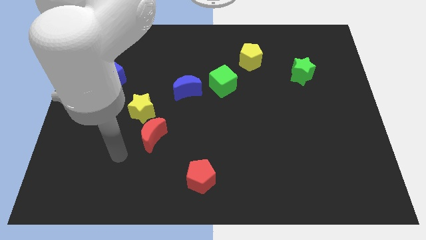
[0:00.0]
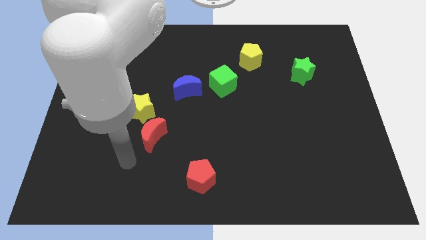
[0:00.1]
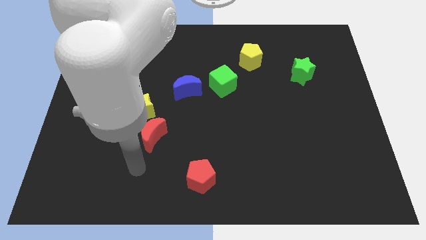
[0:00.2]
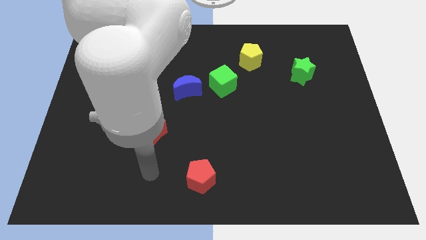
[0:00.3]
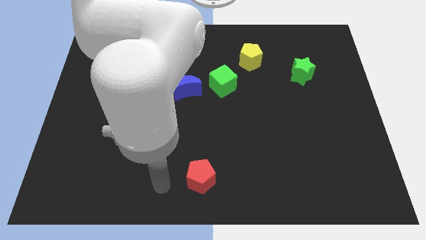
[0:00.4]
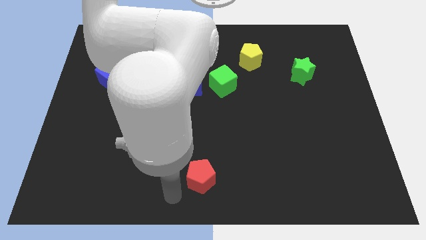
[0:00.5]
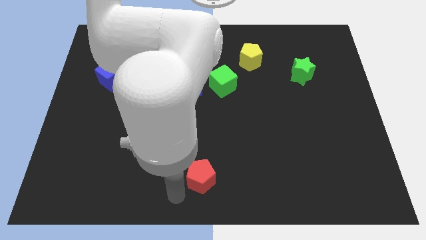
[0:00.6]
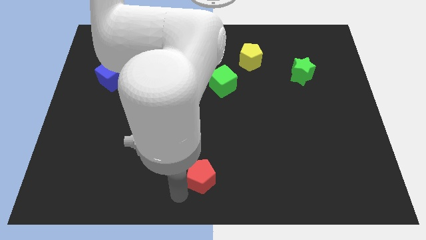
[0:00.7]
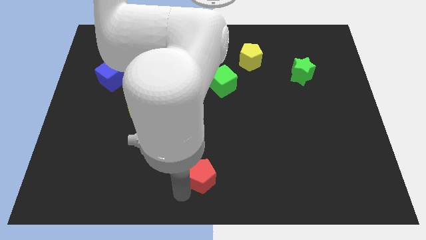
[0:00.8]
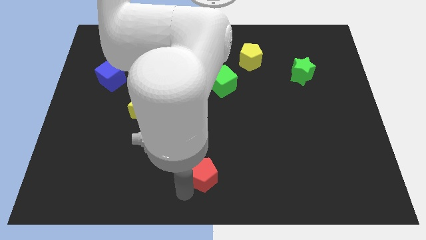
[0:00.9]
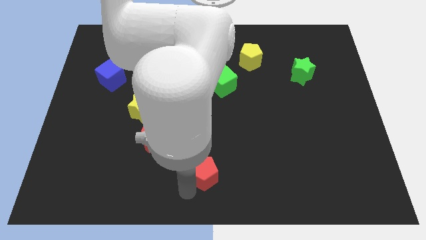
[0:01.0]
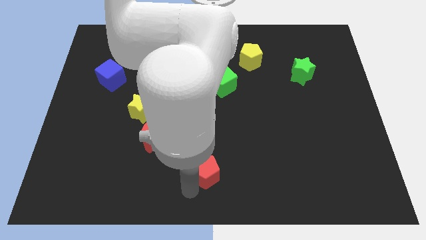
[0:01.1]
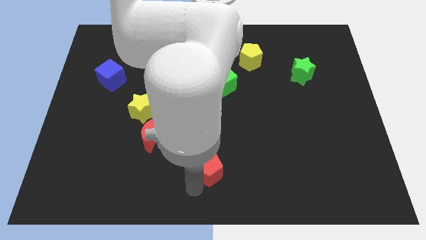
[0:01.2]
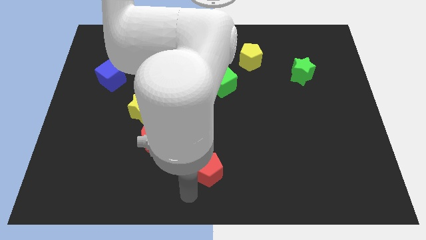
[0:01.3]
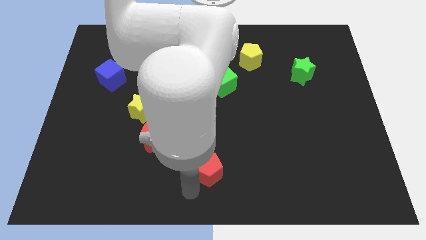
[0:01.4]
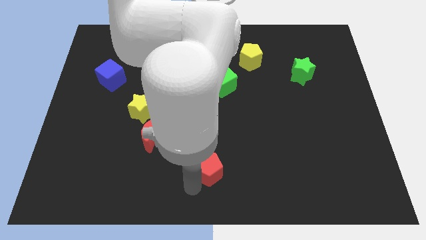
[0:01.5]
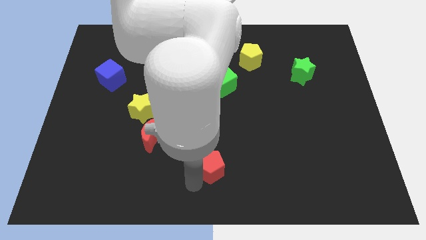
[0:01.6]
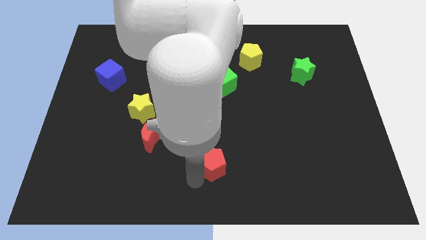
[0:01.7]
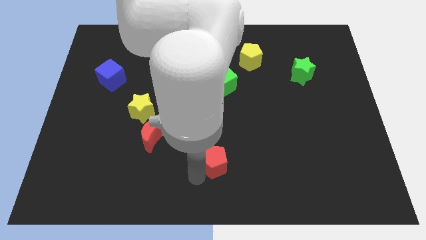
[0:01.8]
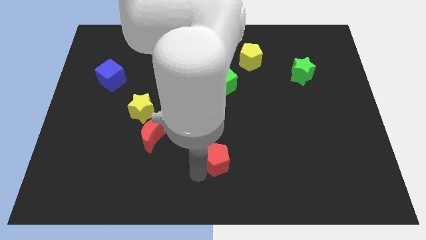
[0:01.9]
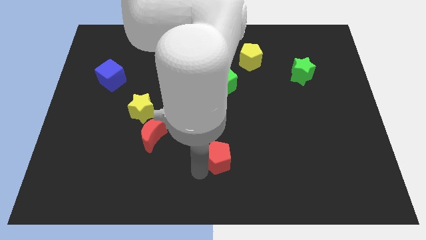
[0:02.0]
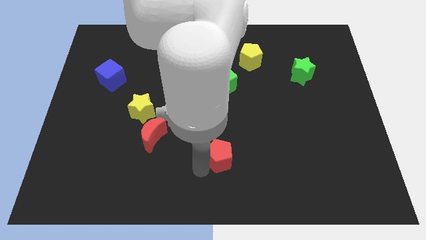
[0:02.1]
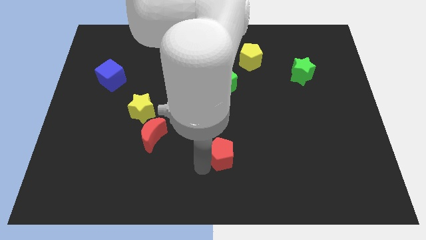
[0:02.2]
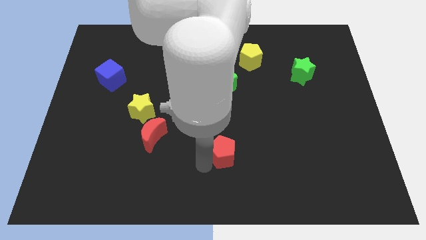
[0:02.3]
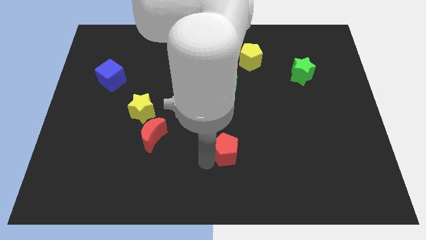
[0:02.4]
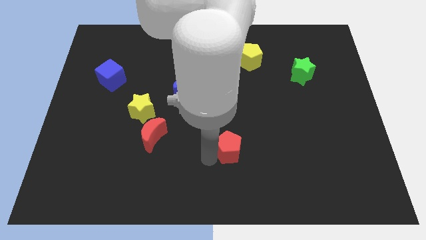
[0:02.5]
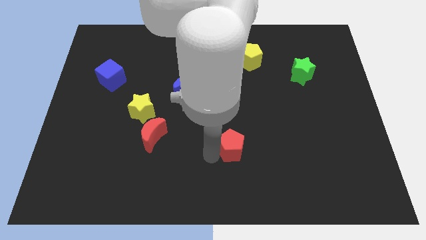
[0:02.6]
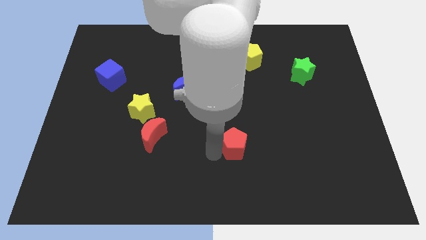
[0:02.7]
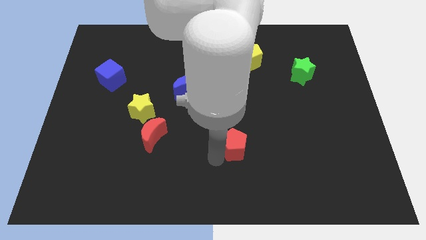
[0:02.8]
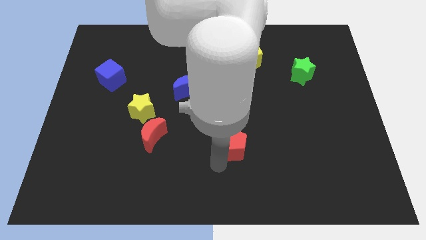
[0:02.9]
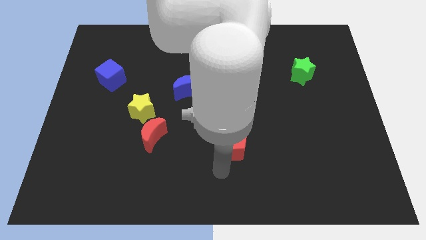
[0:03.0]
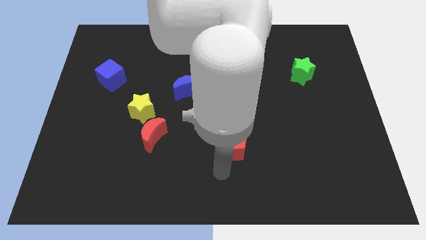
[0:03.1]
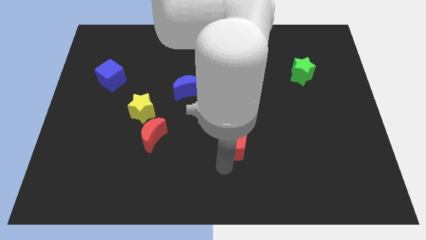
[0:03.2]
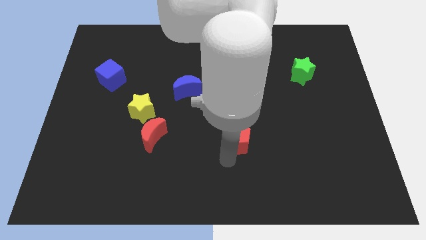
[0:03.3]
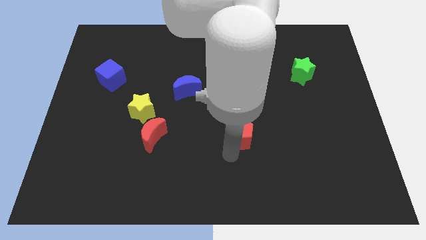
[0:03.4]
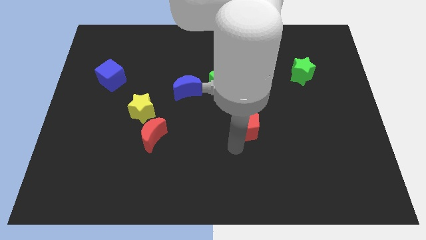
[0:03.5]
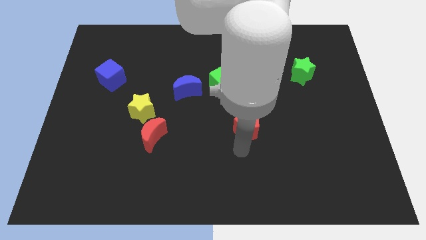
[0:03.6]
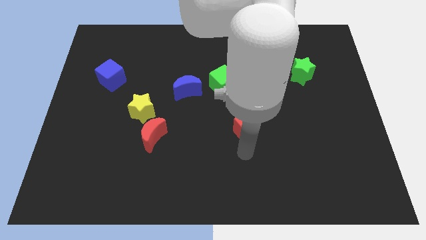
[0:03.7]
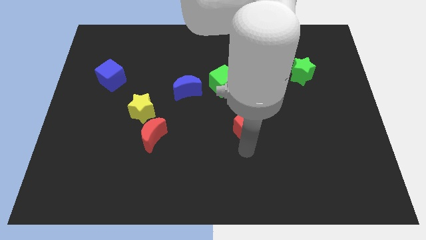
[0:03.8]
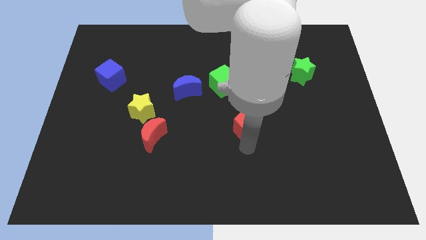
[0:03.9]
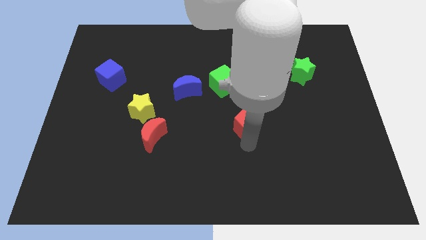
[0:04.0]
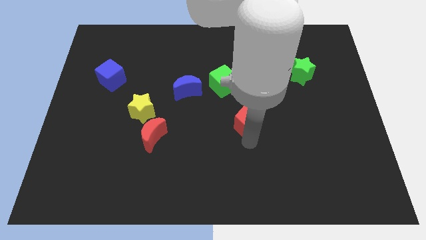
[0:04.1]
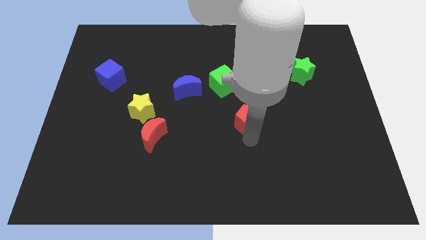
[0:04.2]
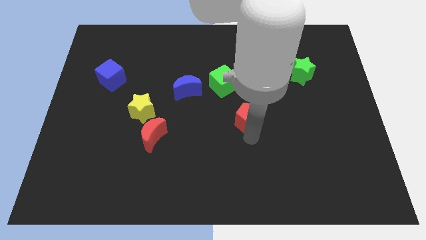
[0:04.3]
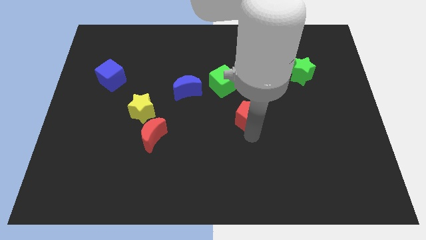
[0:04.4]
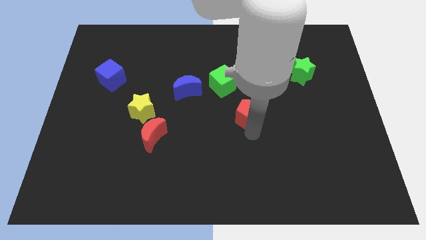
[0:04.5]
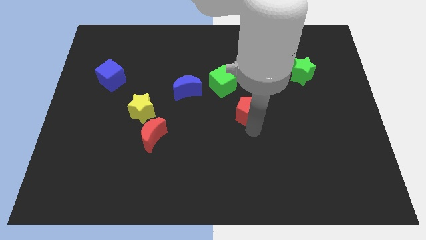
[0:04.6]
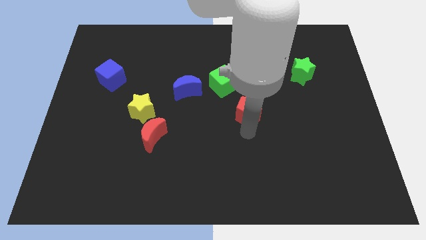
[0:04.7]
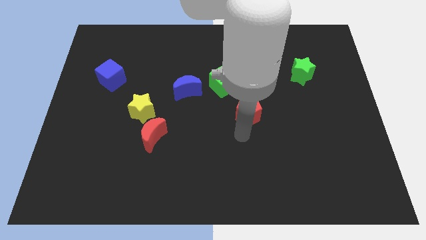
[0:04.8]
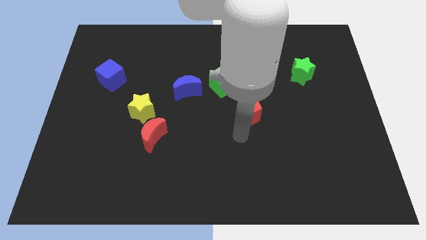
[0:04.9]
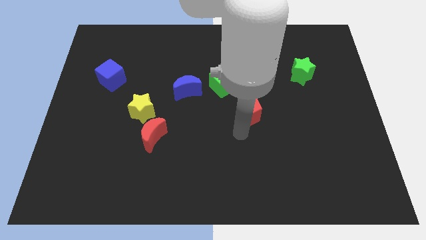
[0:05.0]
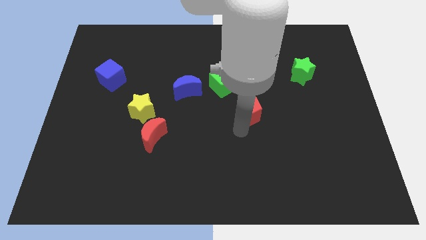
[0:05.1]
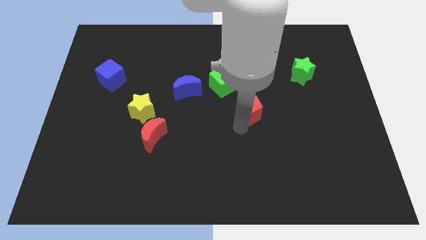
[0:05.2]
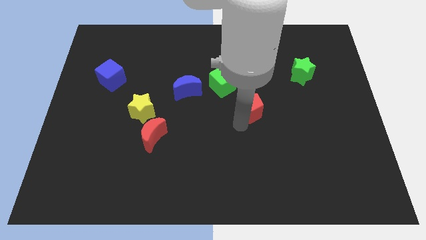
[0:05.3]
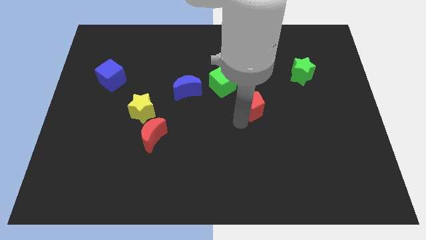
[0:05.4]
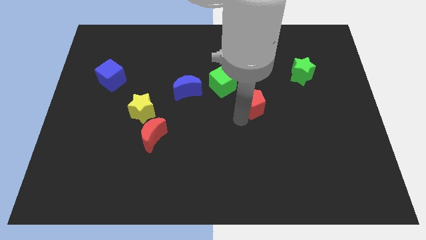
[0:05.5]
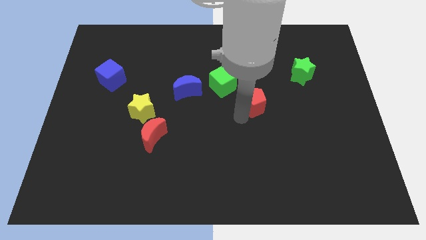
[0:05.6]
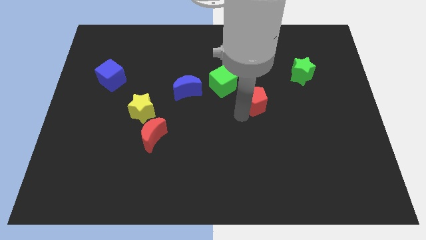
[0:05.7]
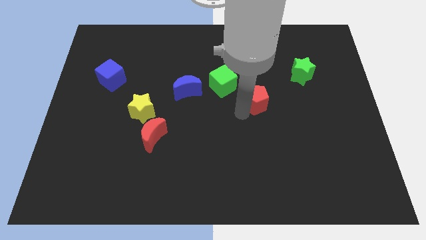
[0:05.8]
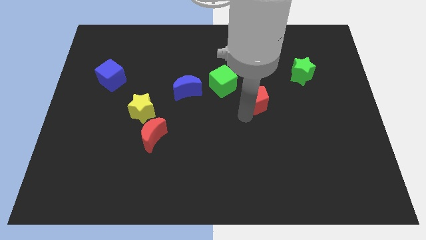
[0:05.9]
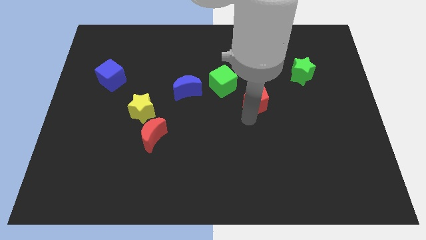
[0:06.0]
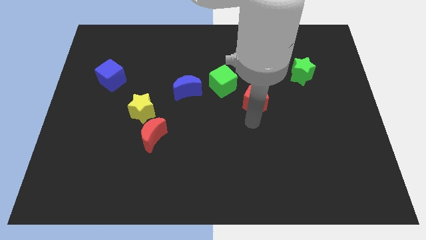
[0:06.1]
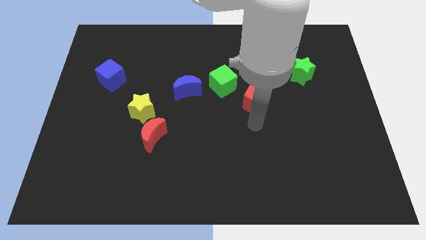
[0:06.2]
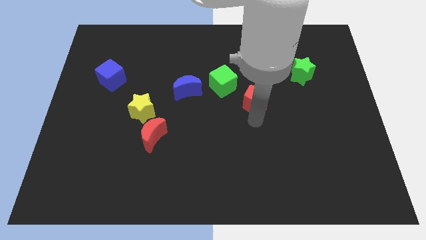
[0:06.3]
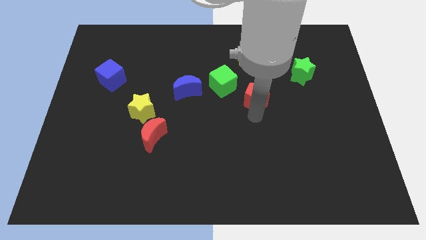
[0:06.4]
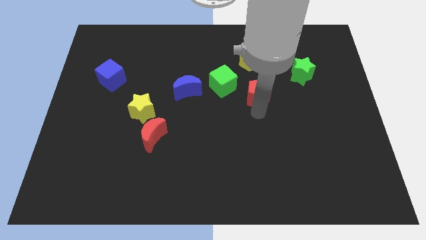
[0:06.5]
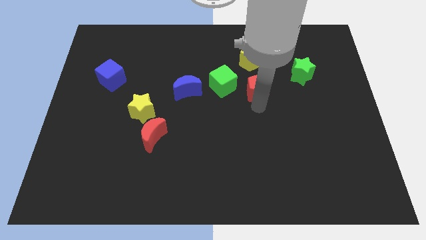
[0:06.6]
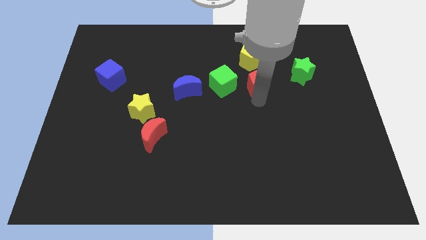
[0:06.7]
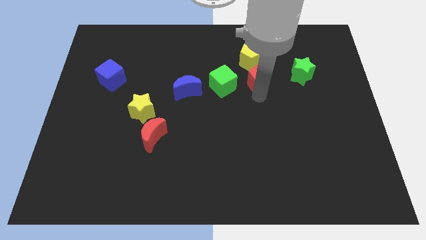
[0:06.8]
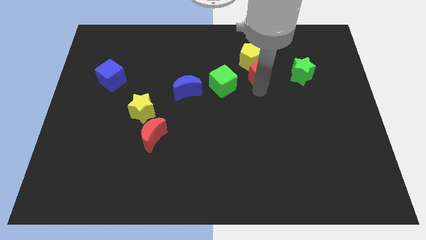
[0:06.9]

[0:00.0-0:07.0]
put the red pentagon next to the yellow pentagon
